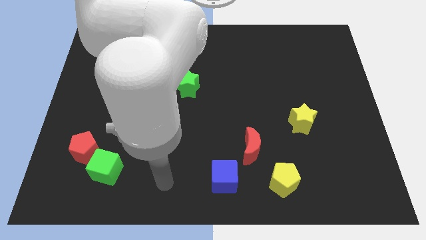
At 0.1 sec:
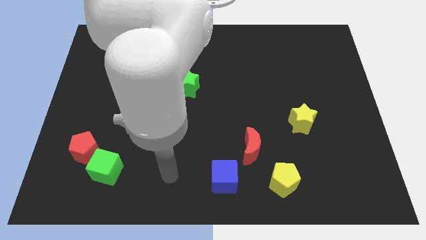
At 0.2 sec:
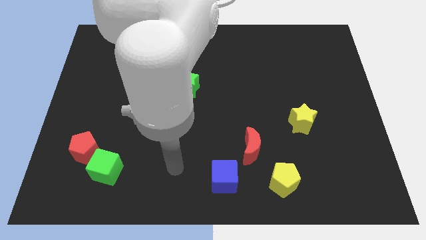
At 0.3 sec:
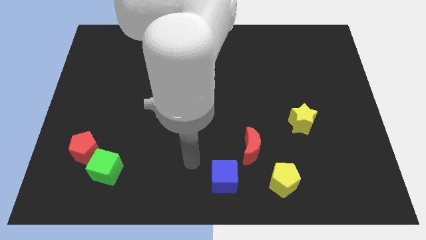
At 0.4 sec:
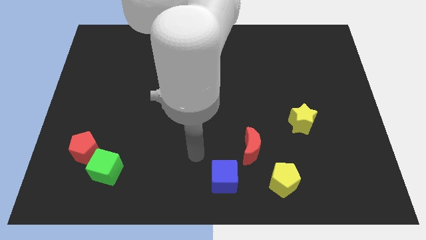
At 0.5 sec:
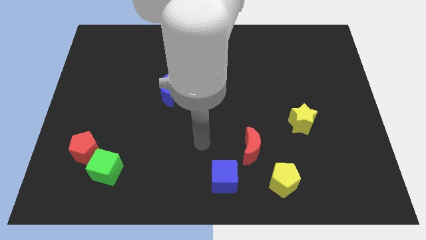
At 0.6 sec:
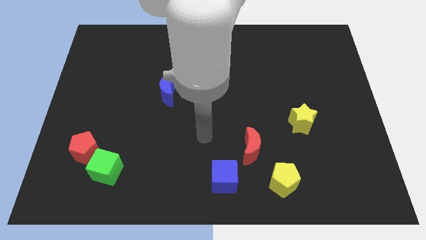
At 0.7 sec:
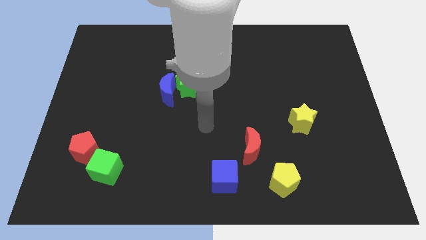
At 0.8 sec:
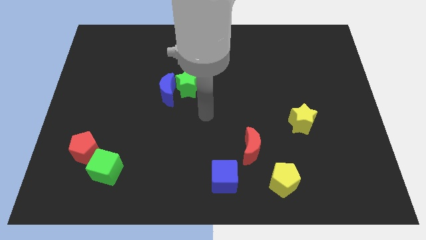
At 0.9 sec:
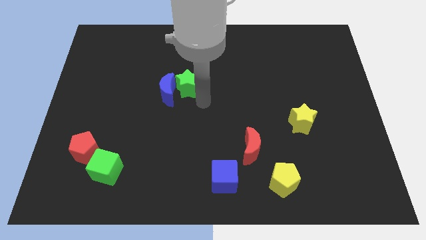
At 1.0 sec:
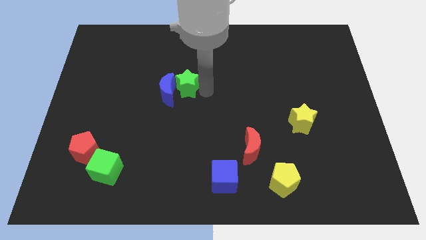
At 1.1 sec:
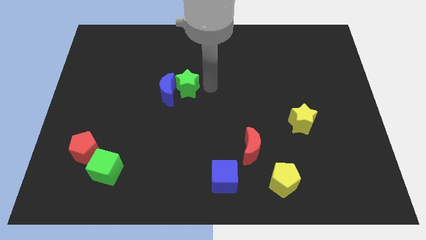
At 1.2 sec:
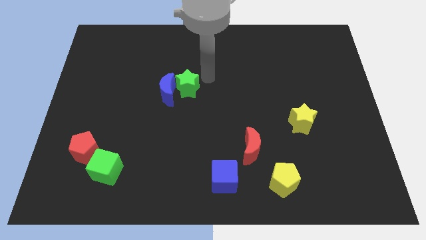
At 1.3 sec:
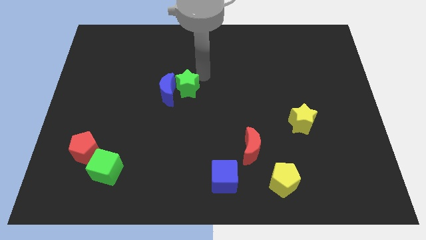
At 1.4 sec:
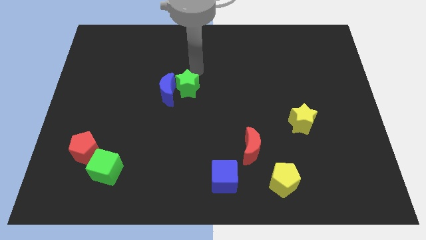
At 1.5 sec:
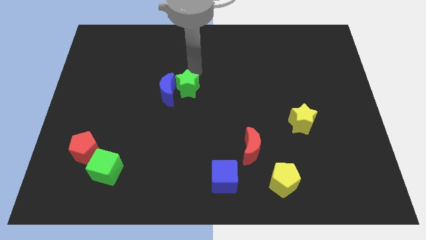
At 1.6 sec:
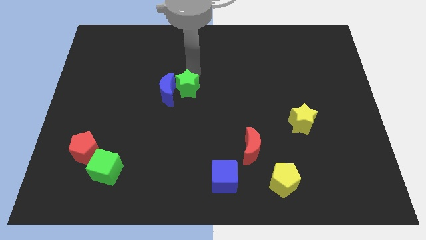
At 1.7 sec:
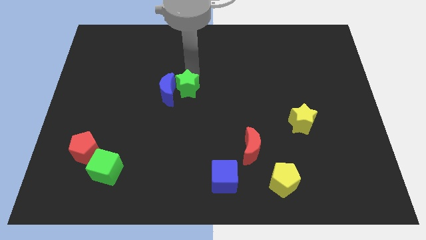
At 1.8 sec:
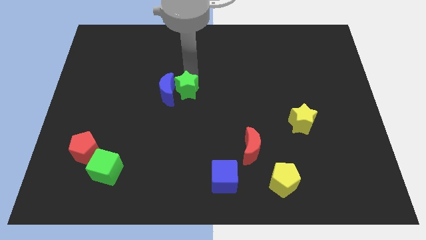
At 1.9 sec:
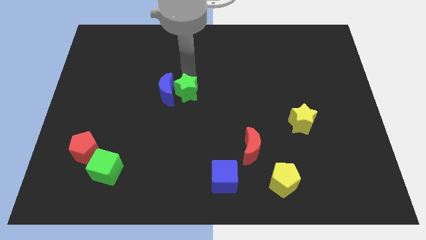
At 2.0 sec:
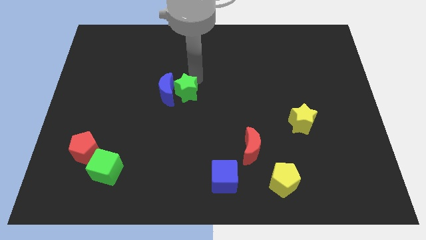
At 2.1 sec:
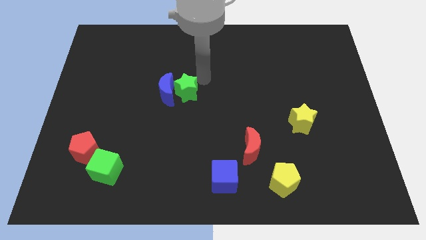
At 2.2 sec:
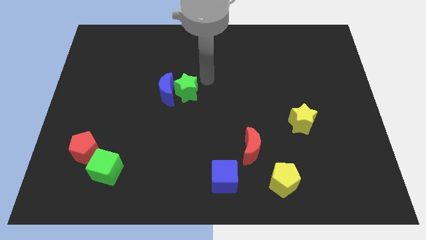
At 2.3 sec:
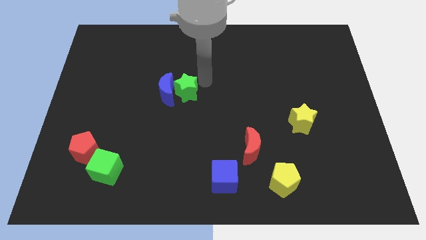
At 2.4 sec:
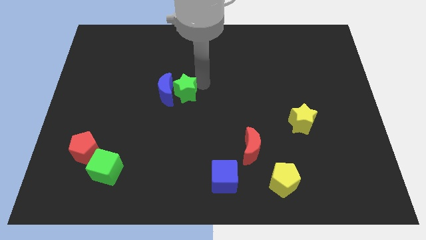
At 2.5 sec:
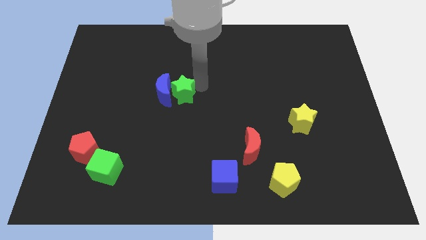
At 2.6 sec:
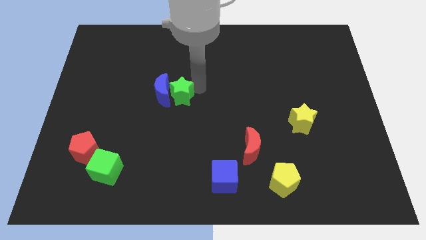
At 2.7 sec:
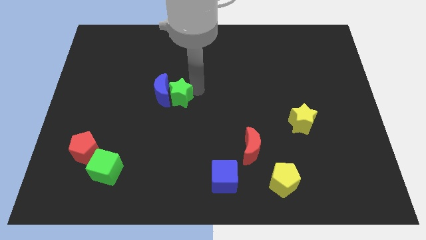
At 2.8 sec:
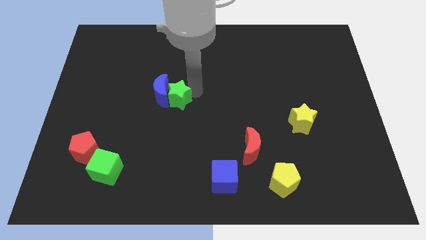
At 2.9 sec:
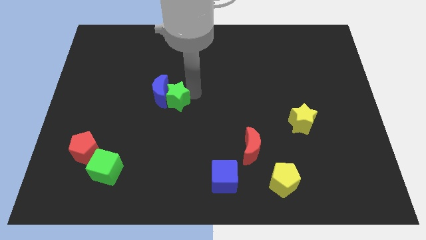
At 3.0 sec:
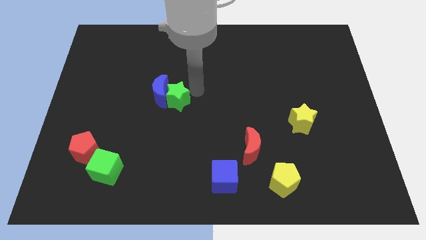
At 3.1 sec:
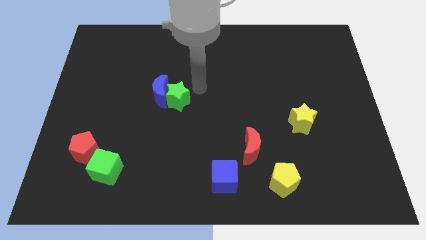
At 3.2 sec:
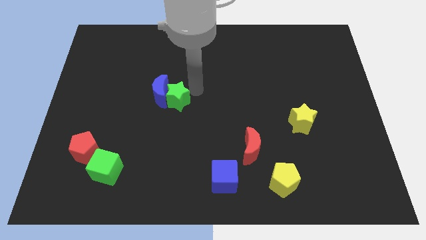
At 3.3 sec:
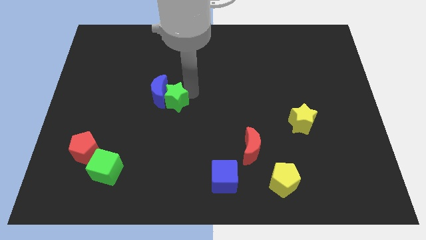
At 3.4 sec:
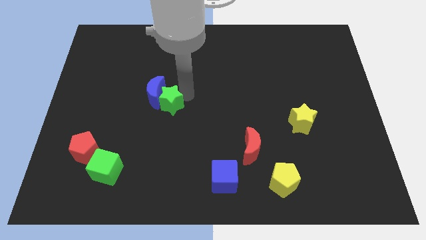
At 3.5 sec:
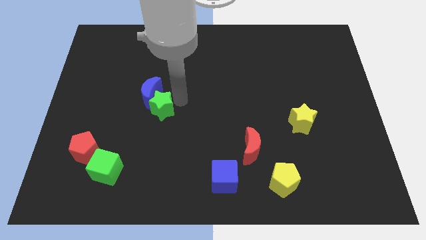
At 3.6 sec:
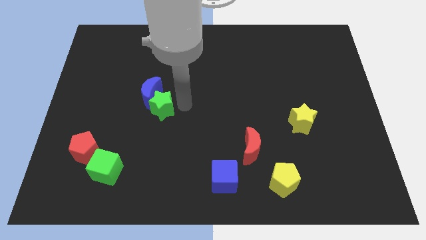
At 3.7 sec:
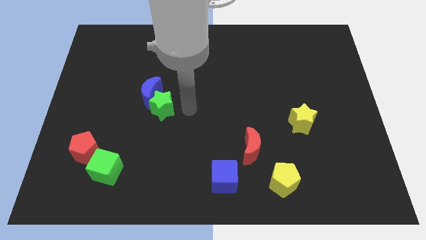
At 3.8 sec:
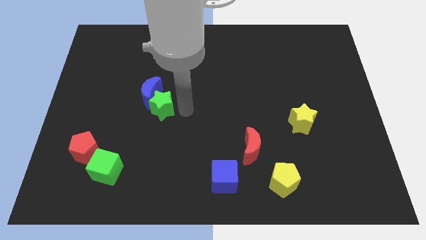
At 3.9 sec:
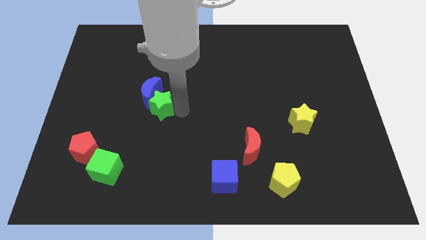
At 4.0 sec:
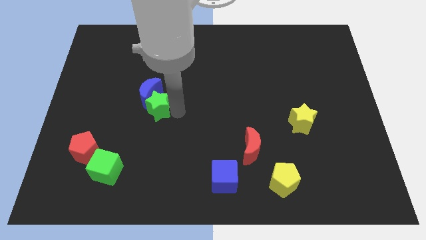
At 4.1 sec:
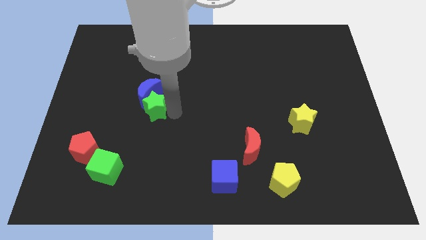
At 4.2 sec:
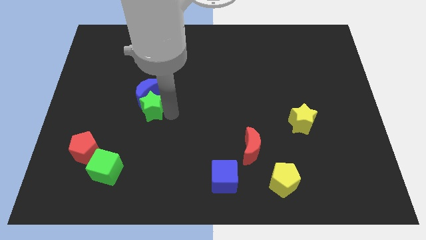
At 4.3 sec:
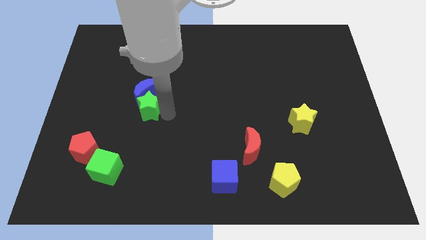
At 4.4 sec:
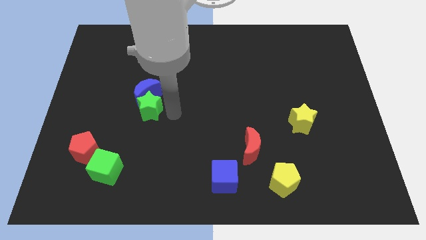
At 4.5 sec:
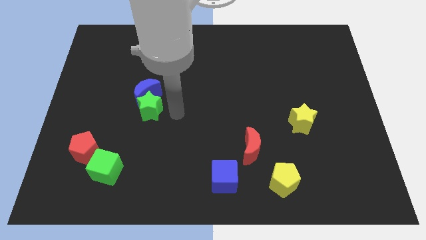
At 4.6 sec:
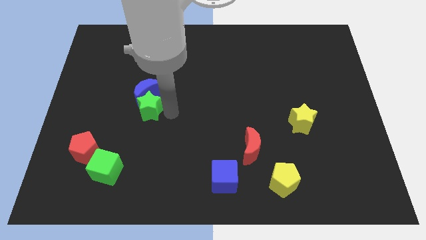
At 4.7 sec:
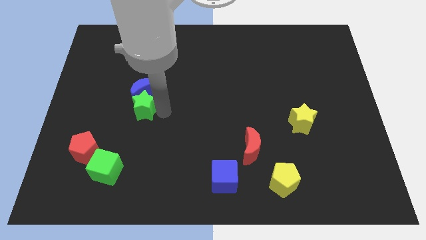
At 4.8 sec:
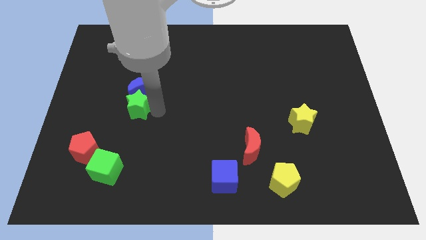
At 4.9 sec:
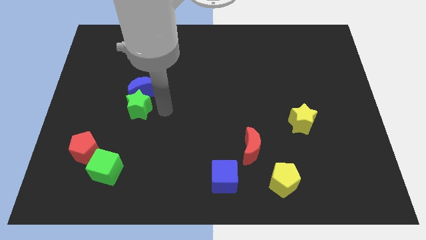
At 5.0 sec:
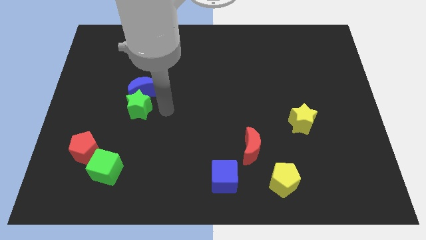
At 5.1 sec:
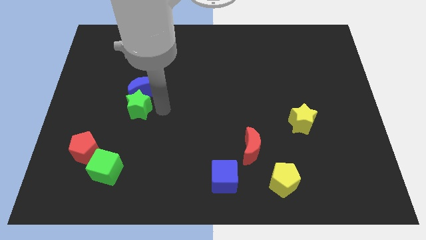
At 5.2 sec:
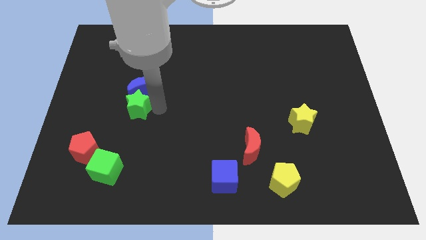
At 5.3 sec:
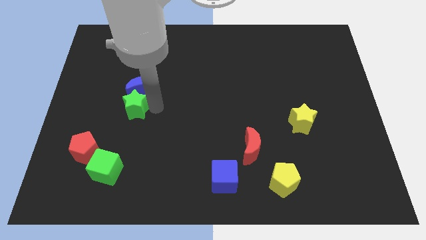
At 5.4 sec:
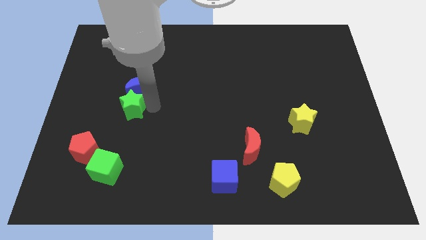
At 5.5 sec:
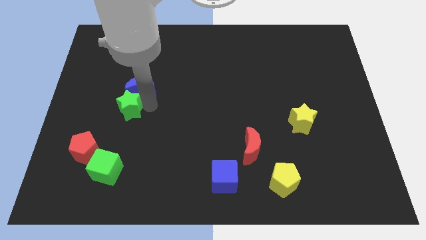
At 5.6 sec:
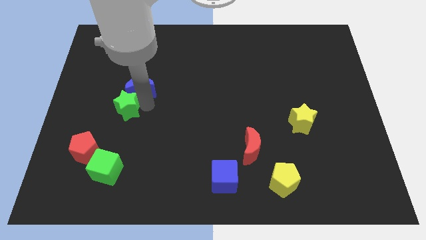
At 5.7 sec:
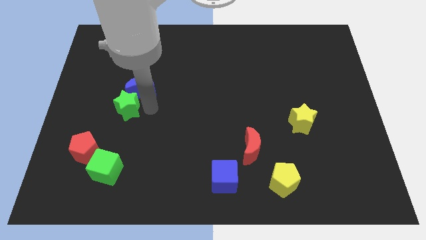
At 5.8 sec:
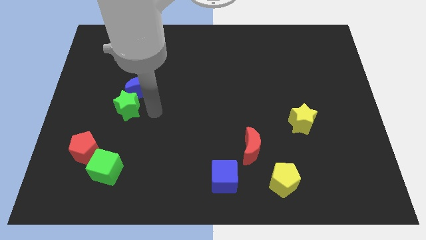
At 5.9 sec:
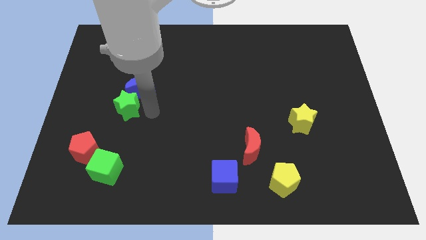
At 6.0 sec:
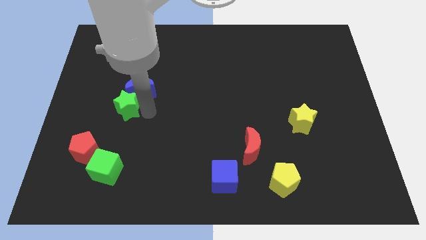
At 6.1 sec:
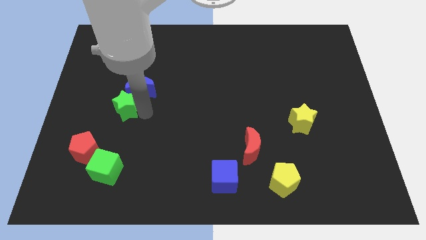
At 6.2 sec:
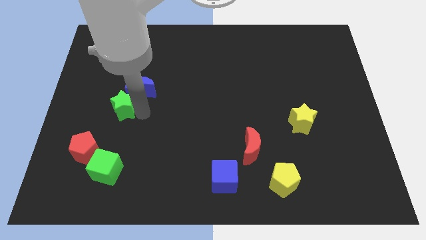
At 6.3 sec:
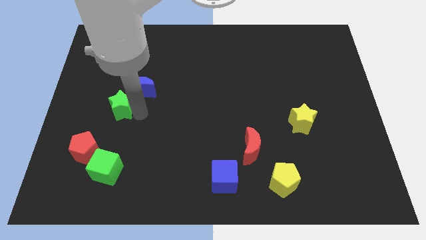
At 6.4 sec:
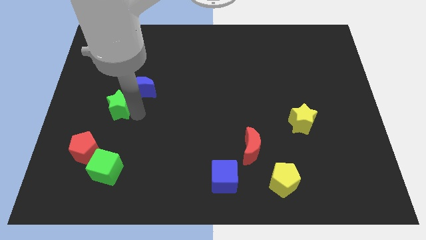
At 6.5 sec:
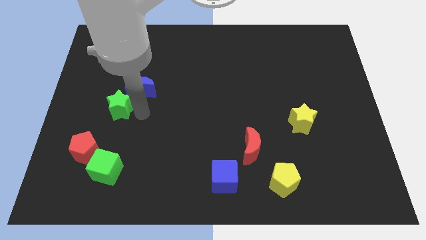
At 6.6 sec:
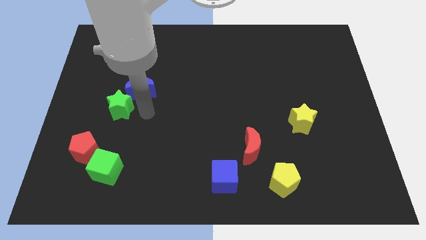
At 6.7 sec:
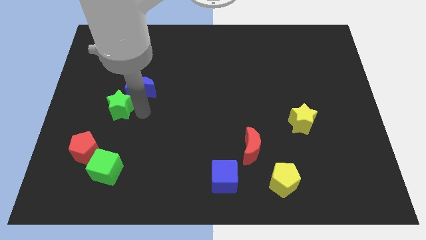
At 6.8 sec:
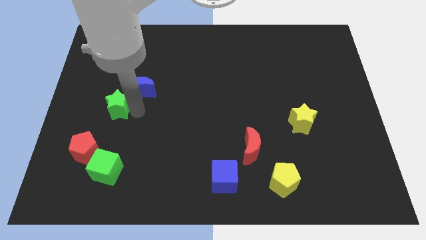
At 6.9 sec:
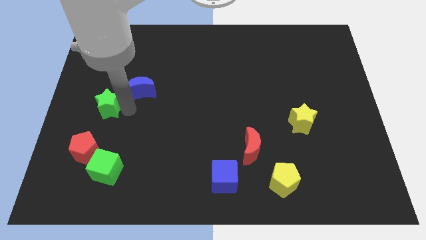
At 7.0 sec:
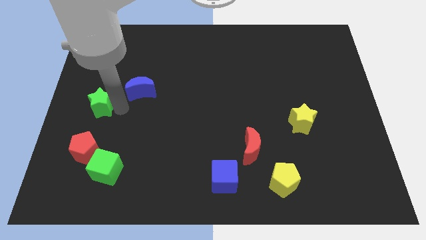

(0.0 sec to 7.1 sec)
move the green star to the center left
